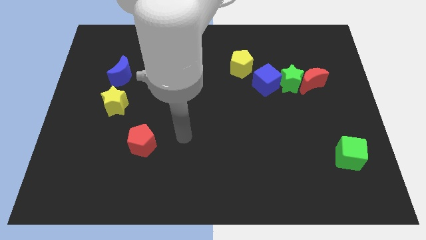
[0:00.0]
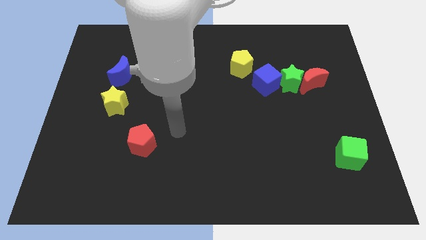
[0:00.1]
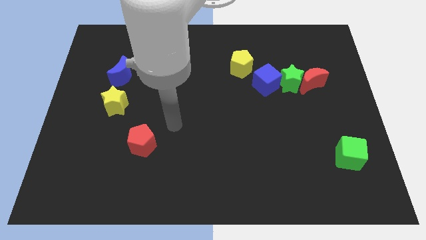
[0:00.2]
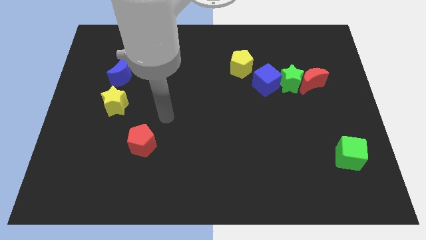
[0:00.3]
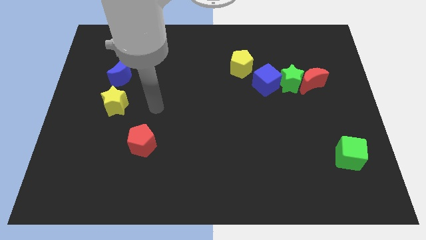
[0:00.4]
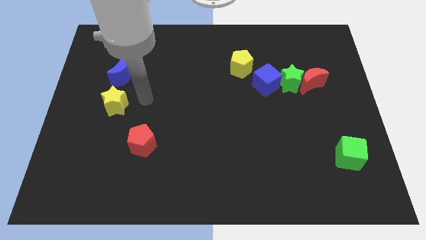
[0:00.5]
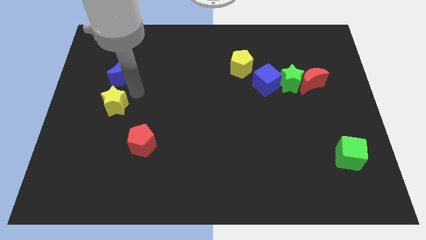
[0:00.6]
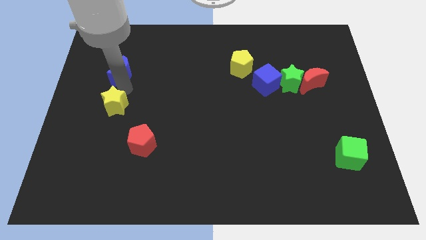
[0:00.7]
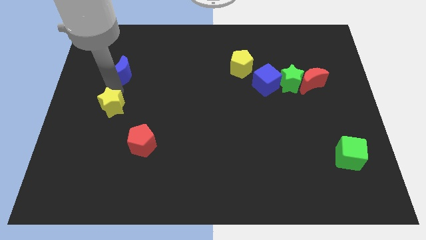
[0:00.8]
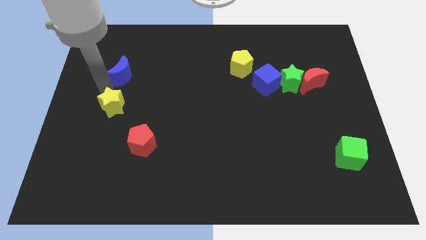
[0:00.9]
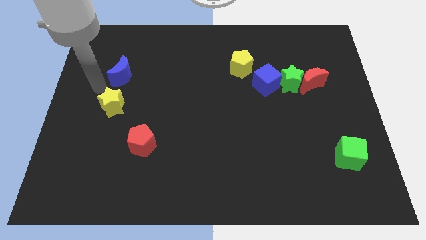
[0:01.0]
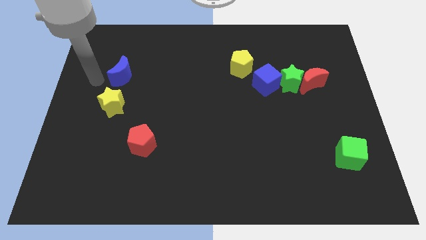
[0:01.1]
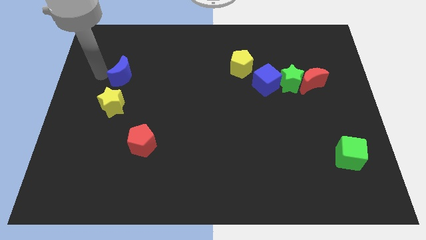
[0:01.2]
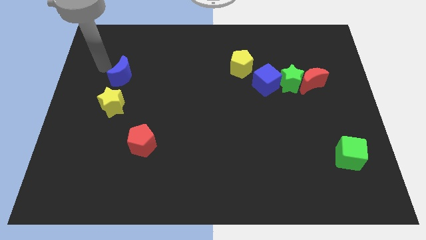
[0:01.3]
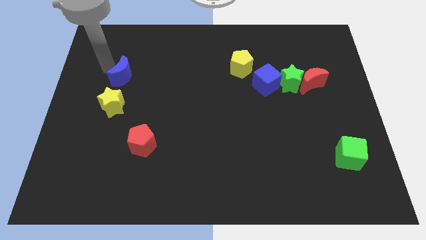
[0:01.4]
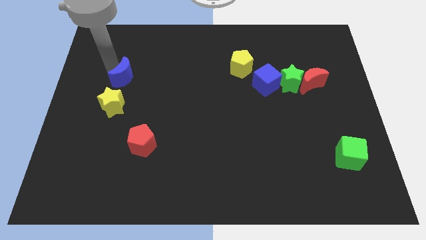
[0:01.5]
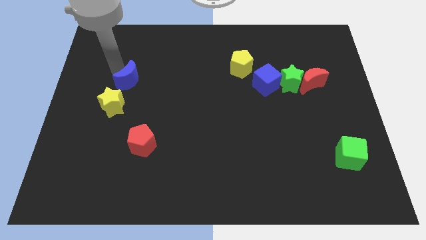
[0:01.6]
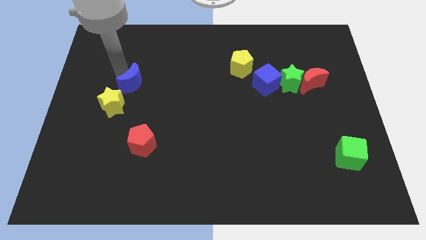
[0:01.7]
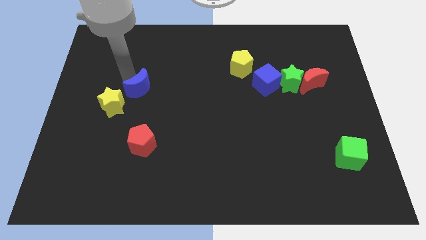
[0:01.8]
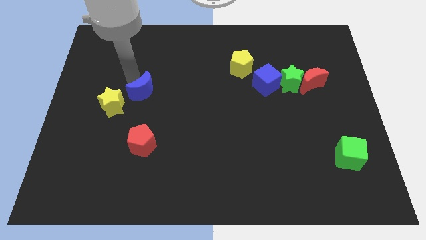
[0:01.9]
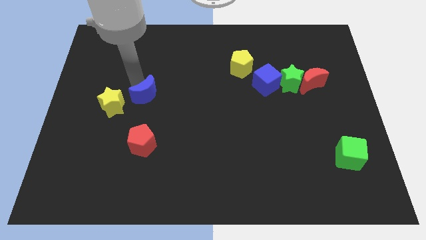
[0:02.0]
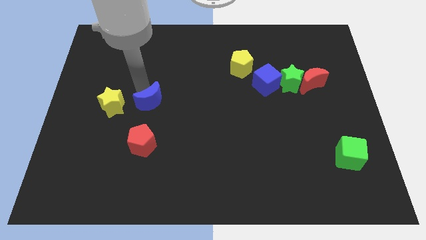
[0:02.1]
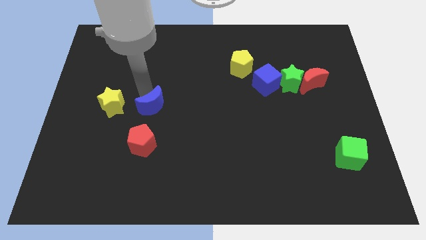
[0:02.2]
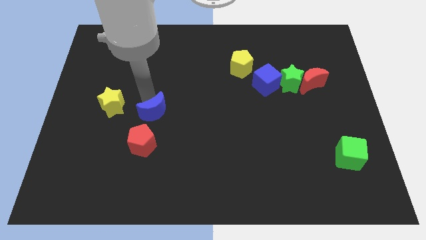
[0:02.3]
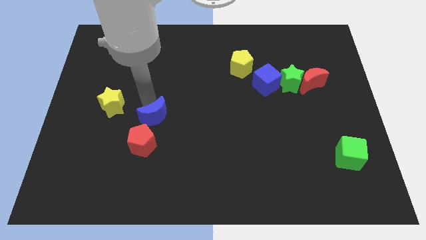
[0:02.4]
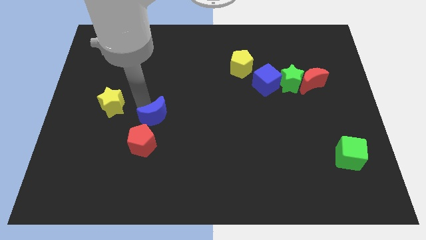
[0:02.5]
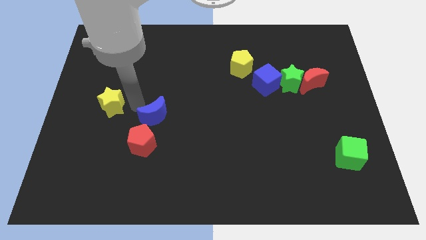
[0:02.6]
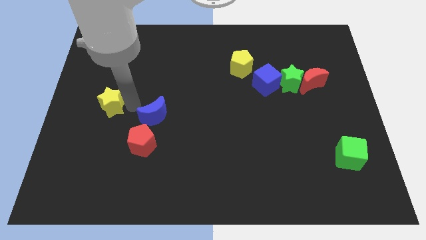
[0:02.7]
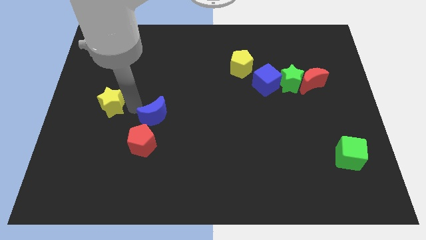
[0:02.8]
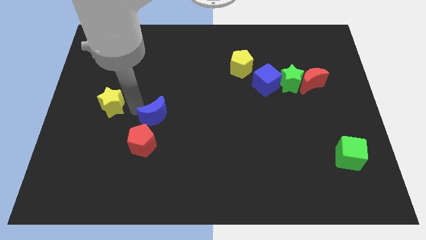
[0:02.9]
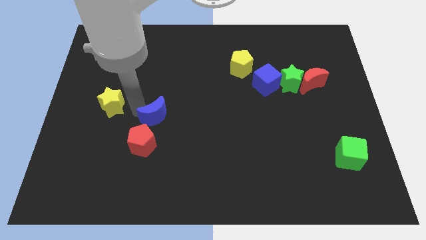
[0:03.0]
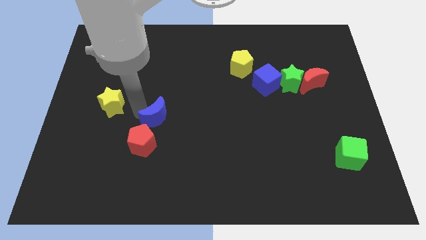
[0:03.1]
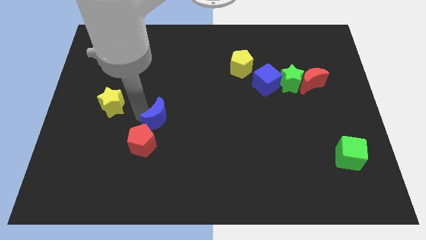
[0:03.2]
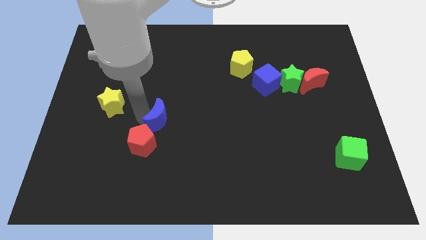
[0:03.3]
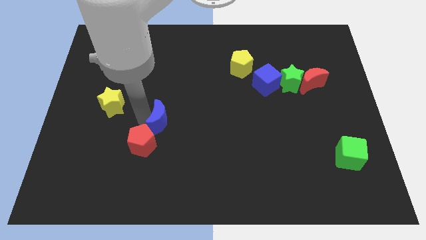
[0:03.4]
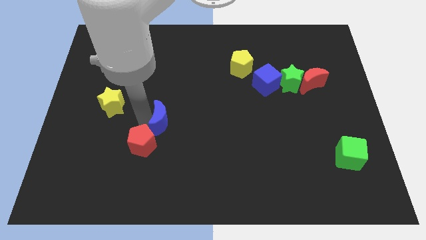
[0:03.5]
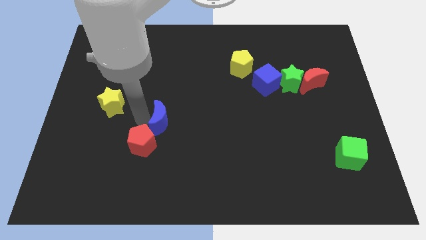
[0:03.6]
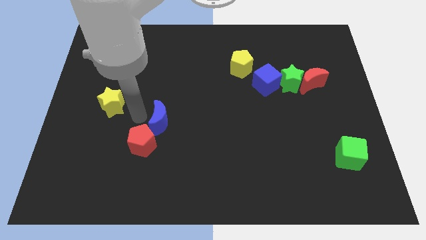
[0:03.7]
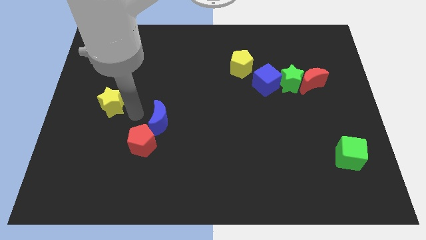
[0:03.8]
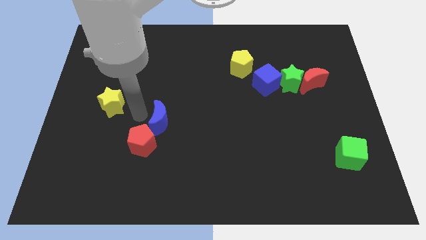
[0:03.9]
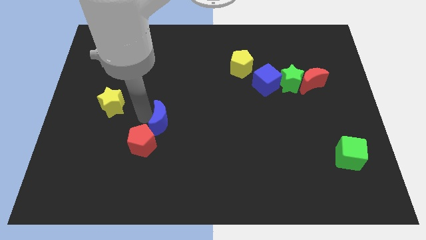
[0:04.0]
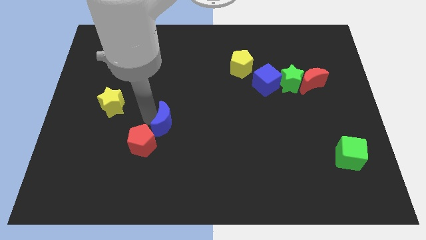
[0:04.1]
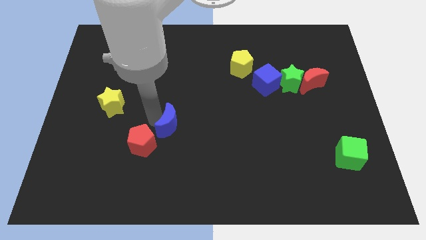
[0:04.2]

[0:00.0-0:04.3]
move the blue moon downwards and to the right

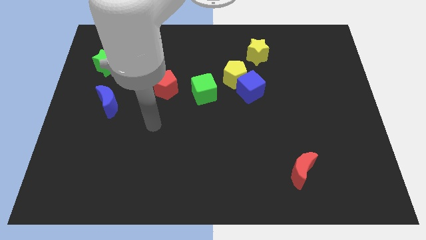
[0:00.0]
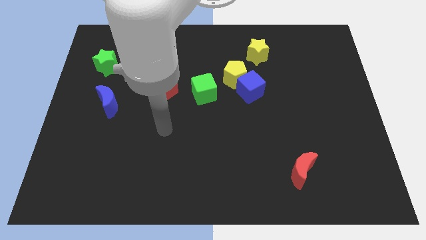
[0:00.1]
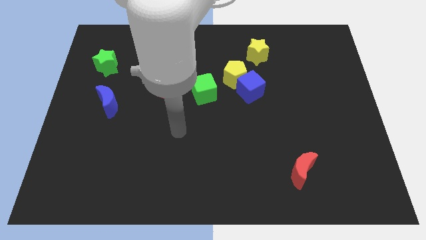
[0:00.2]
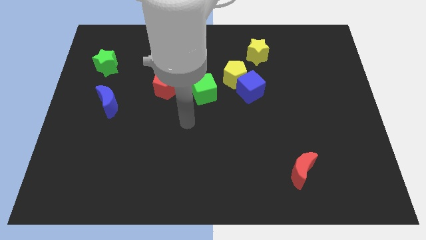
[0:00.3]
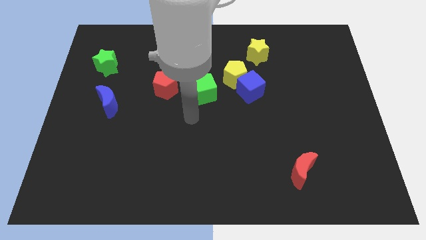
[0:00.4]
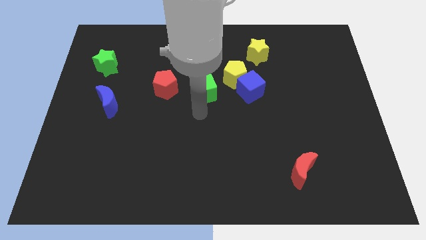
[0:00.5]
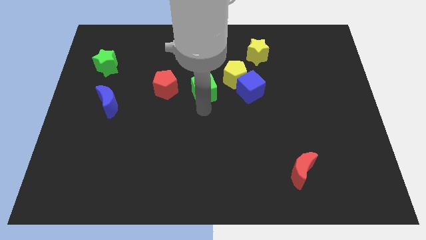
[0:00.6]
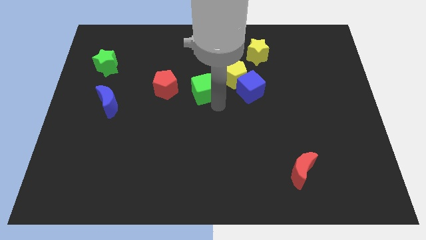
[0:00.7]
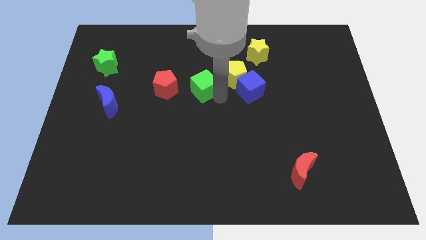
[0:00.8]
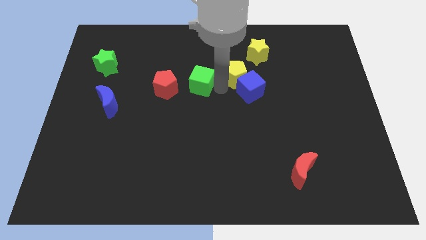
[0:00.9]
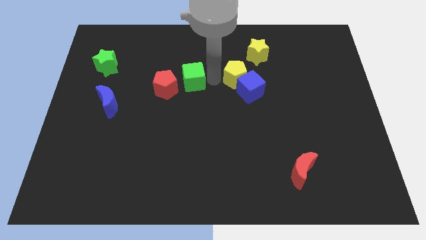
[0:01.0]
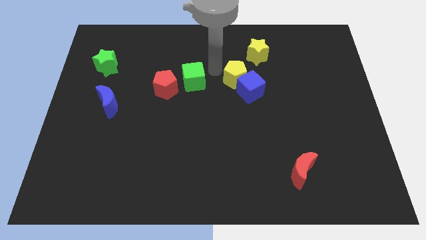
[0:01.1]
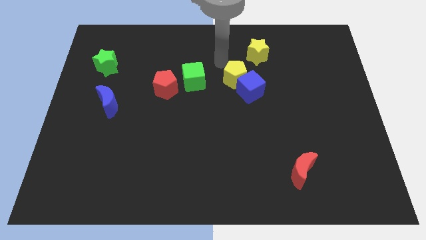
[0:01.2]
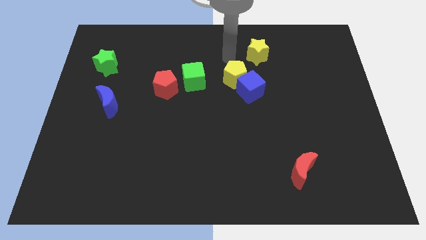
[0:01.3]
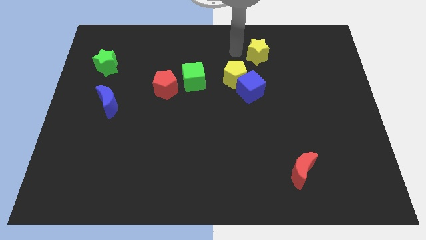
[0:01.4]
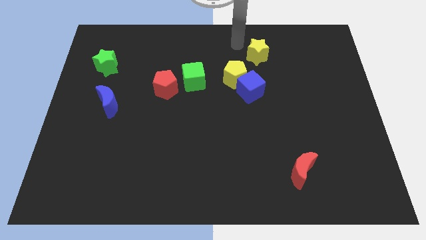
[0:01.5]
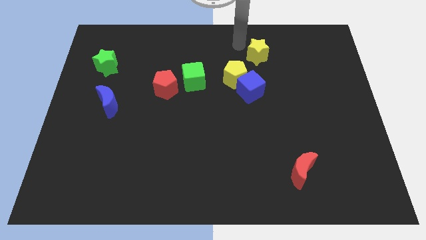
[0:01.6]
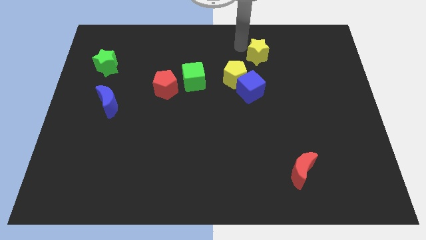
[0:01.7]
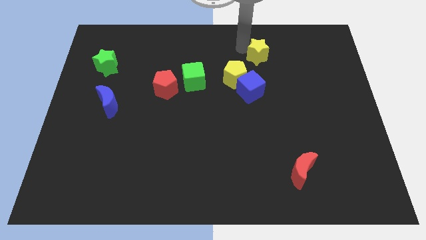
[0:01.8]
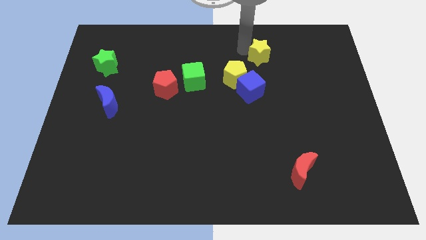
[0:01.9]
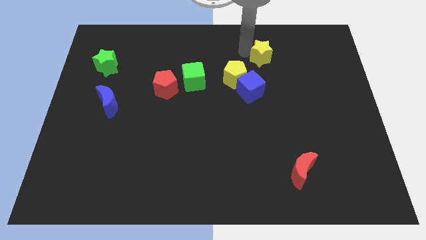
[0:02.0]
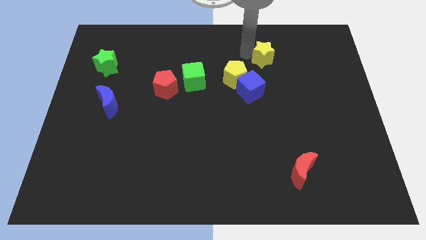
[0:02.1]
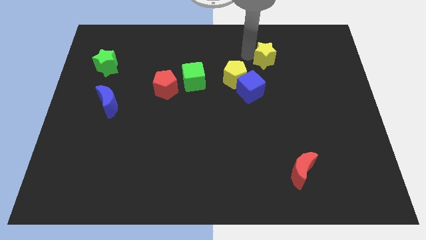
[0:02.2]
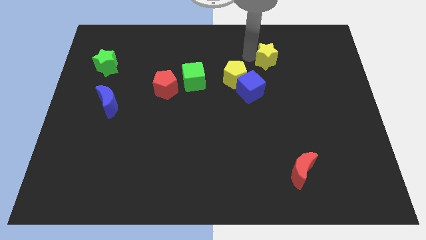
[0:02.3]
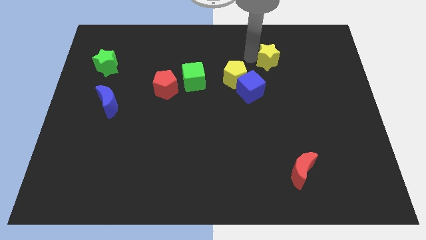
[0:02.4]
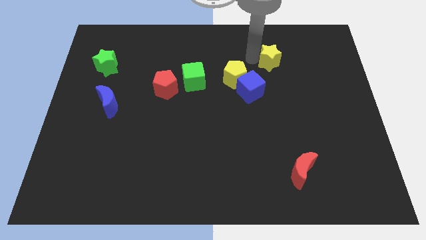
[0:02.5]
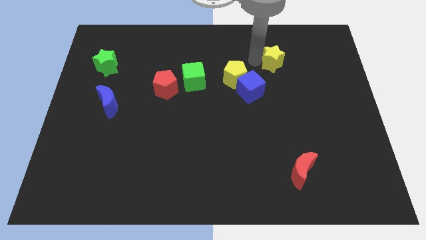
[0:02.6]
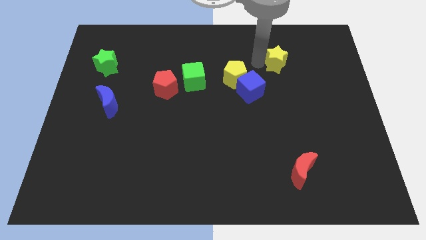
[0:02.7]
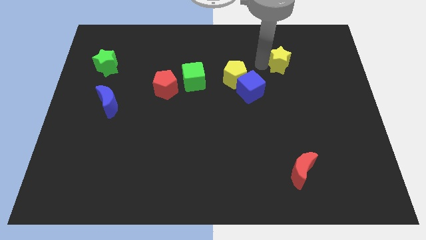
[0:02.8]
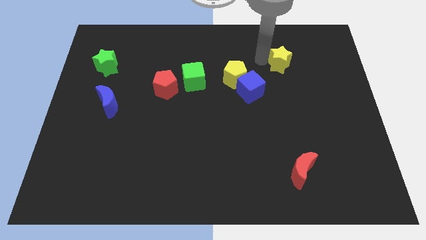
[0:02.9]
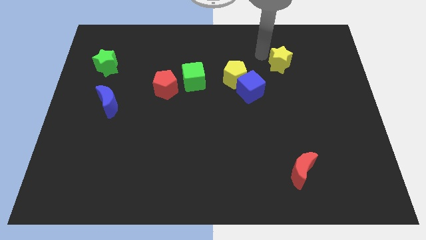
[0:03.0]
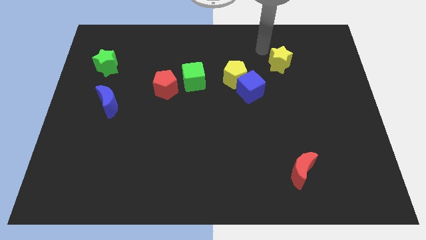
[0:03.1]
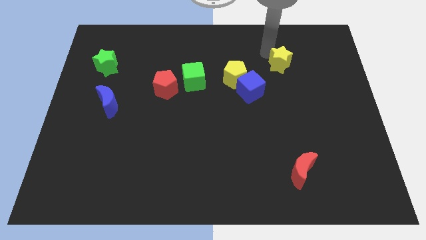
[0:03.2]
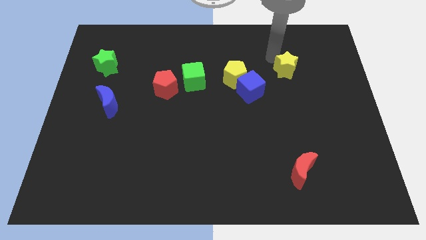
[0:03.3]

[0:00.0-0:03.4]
slide the yellow star a little downwards and then right

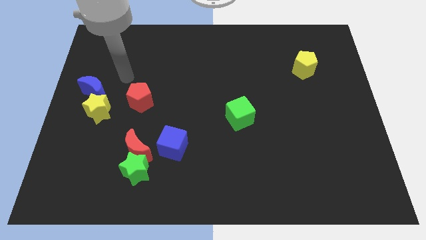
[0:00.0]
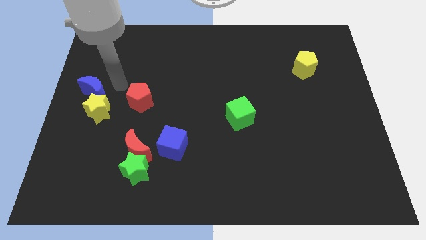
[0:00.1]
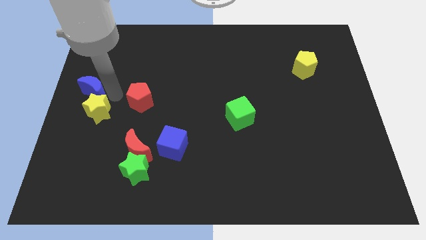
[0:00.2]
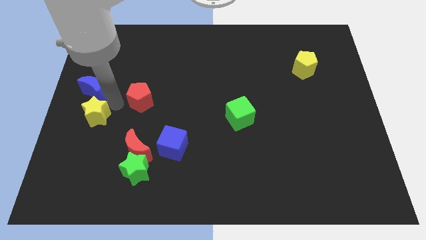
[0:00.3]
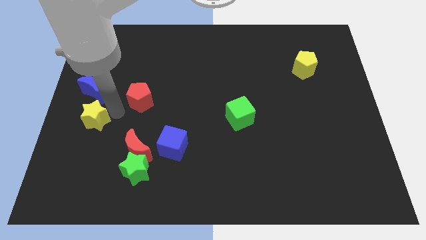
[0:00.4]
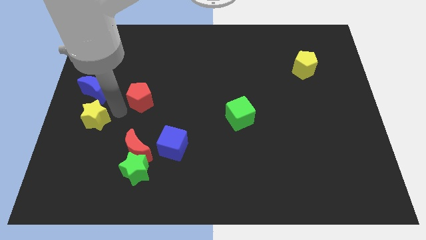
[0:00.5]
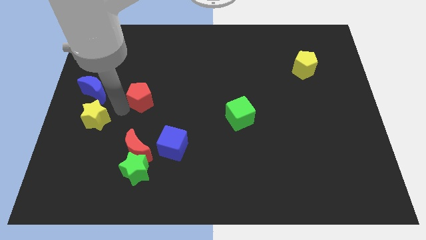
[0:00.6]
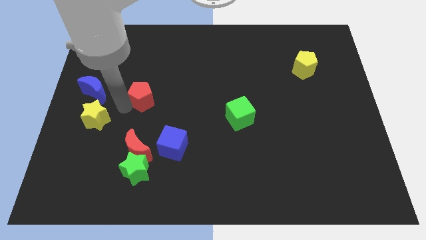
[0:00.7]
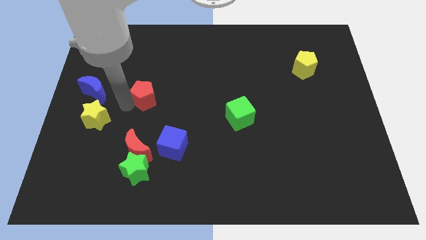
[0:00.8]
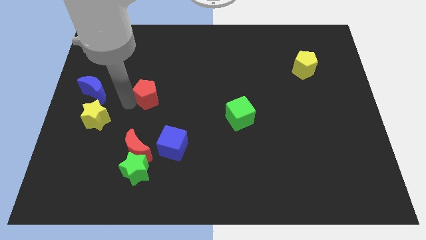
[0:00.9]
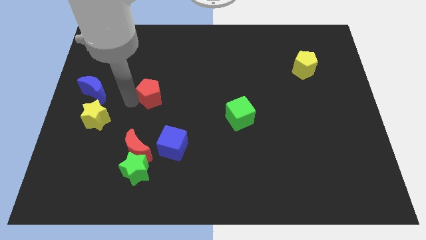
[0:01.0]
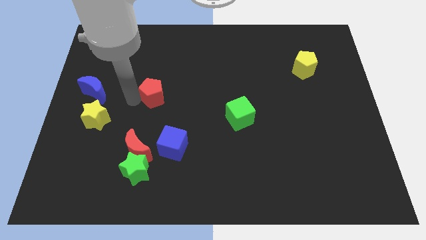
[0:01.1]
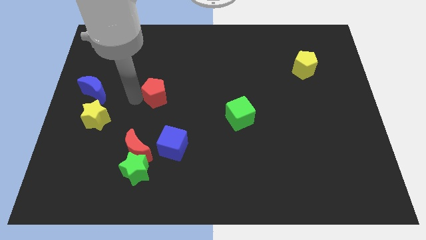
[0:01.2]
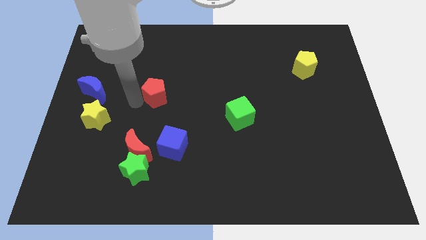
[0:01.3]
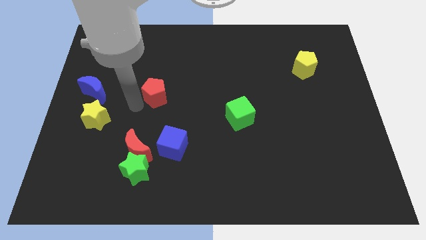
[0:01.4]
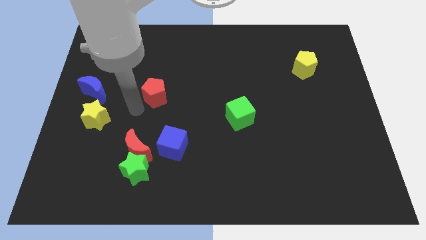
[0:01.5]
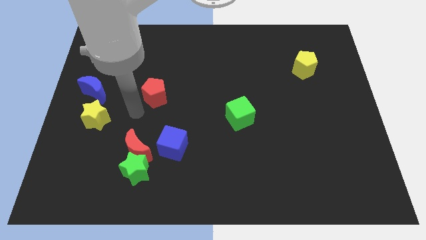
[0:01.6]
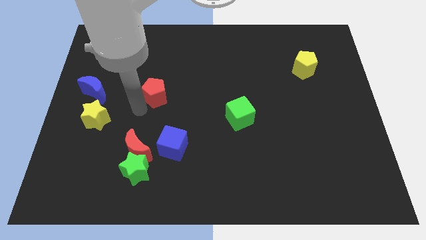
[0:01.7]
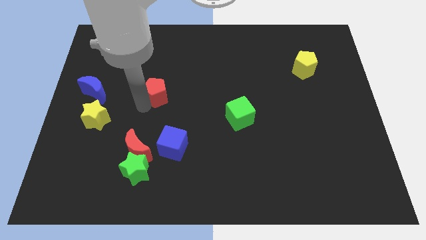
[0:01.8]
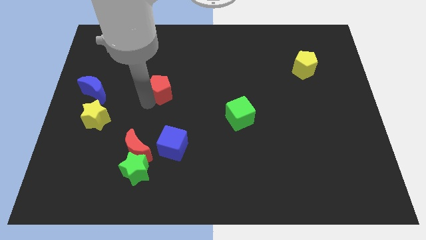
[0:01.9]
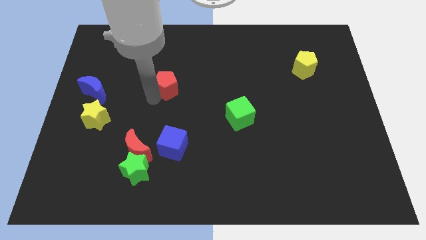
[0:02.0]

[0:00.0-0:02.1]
move the red pentagon a little bit diagonally upwards and to the right
